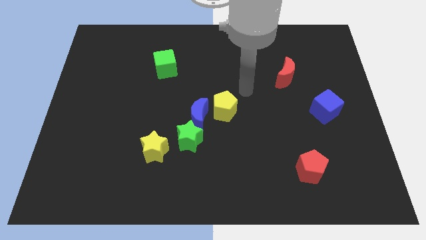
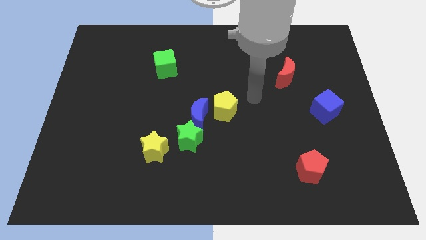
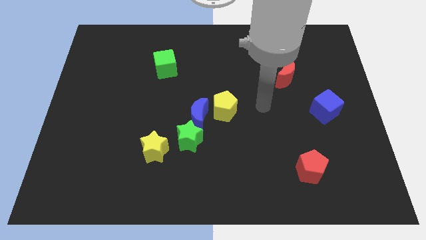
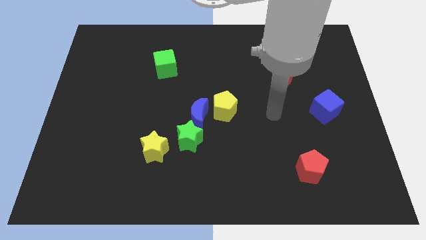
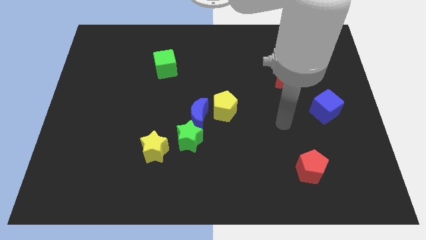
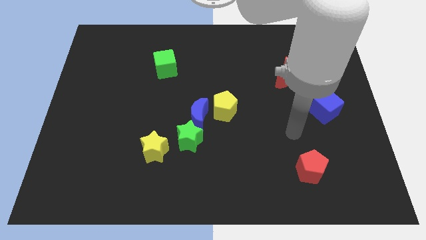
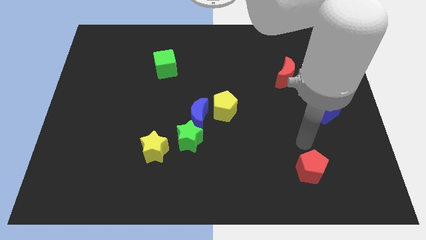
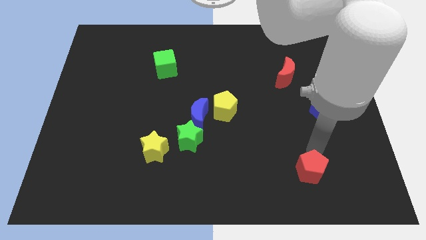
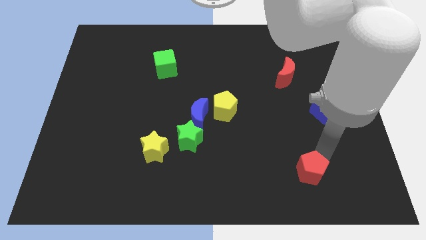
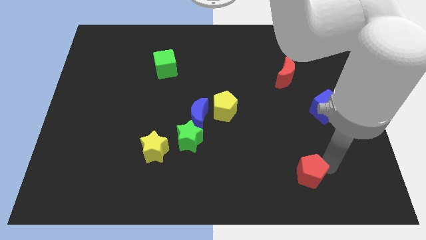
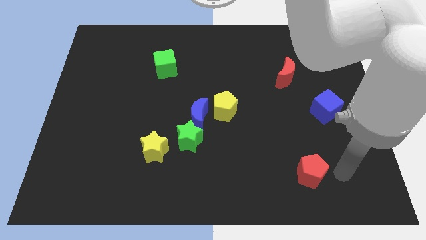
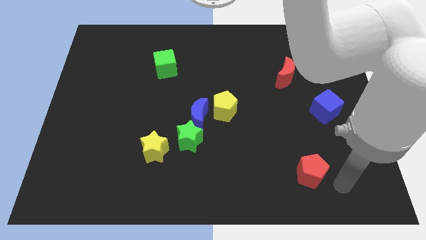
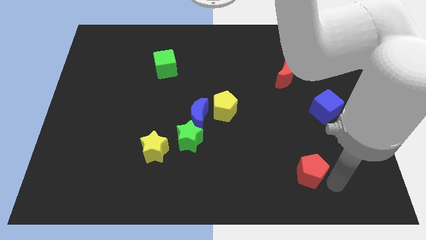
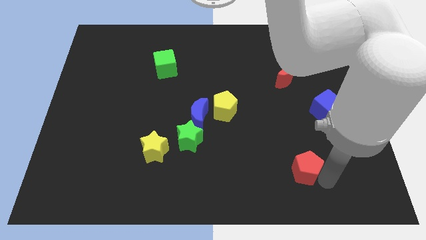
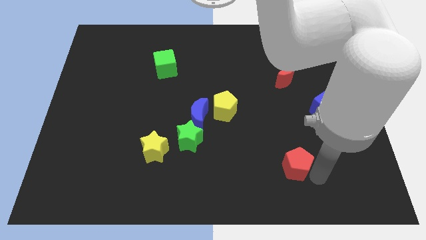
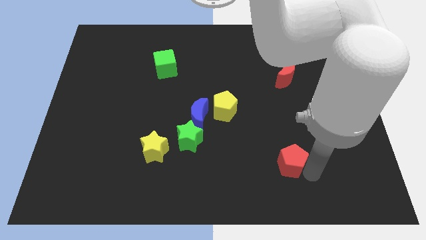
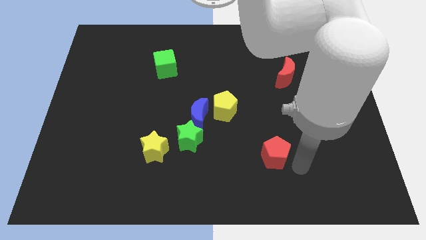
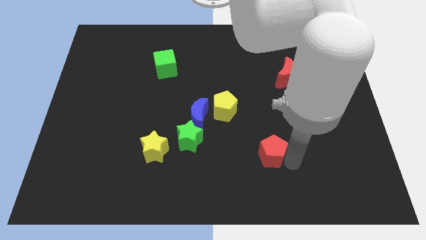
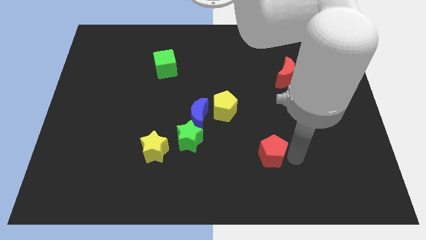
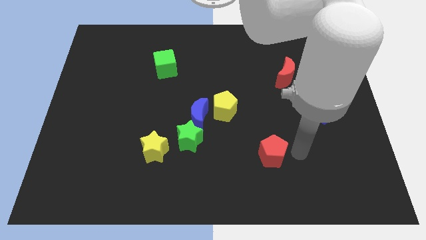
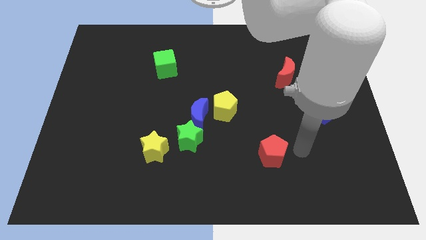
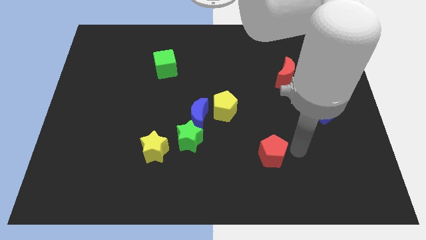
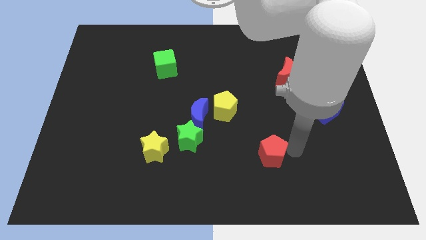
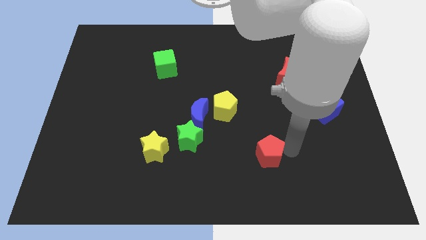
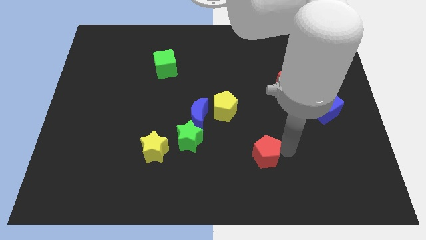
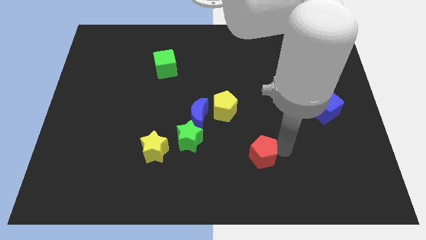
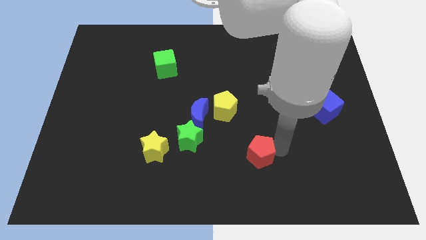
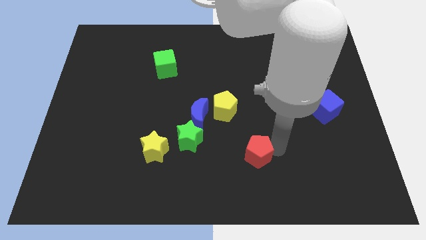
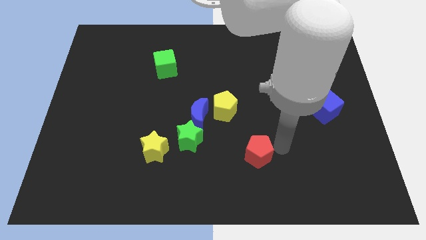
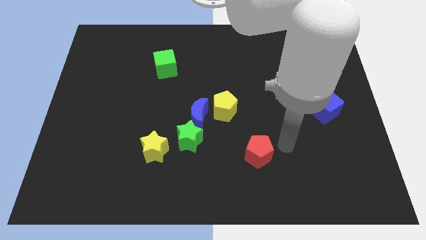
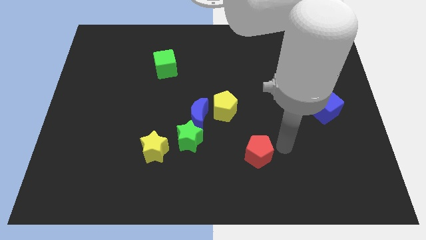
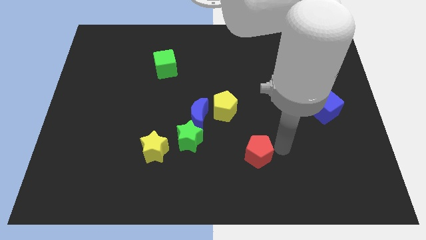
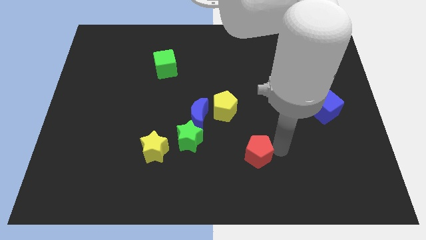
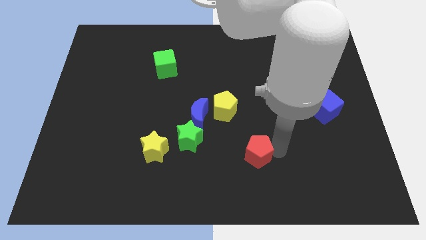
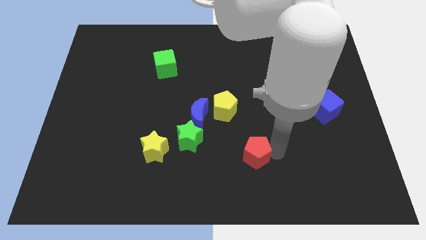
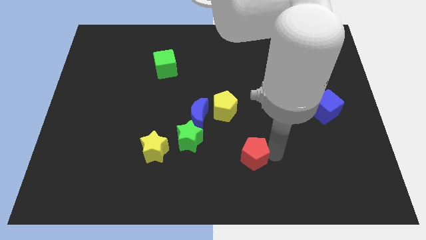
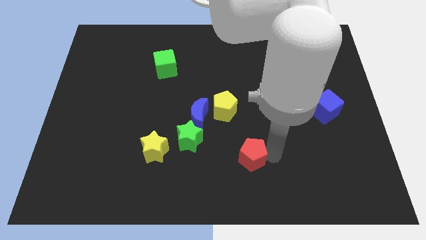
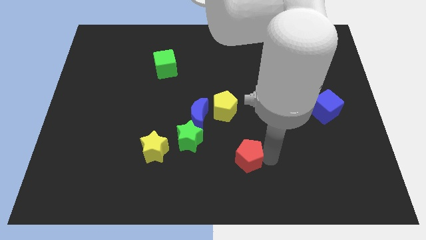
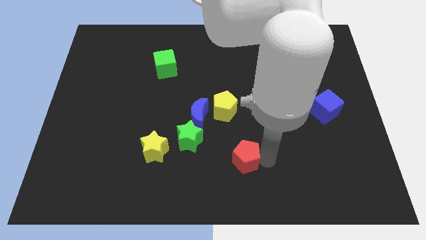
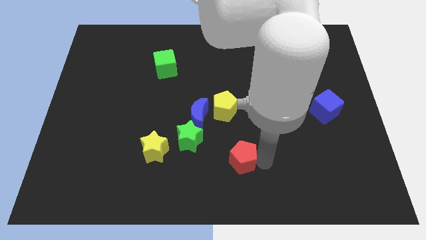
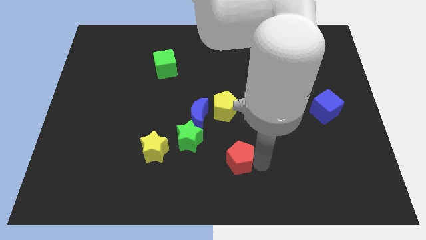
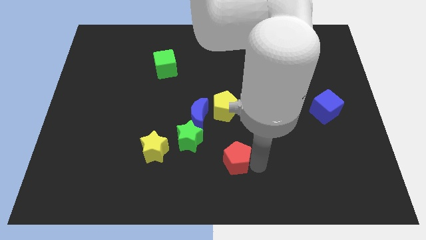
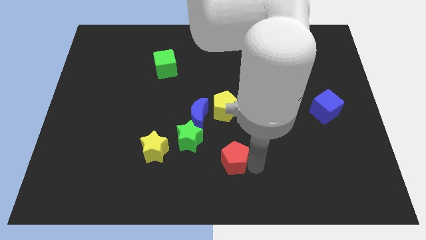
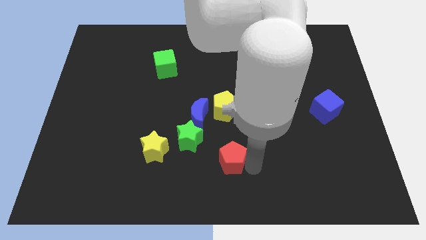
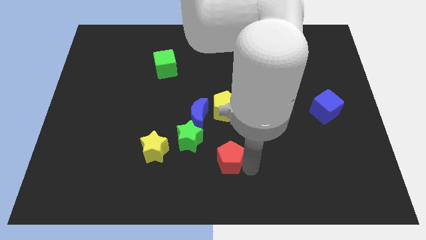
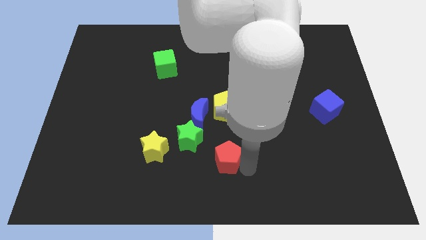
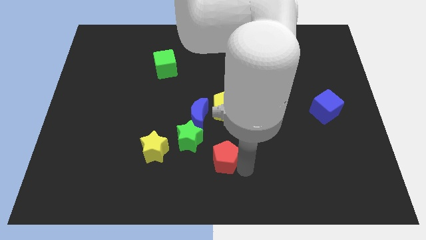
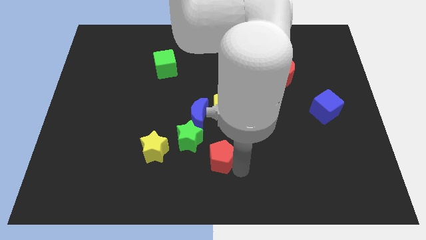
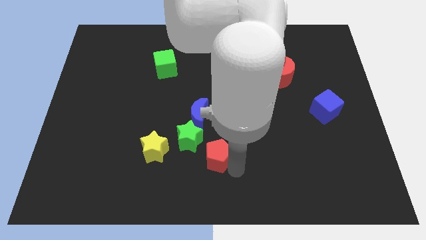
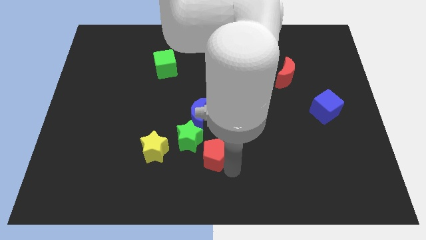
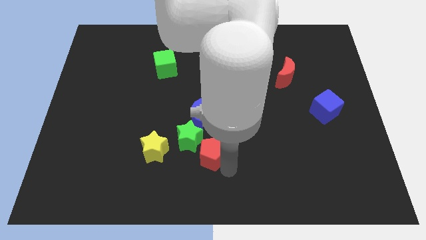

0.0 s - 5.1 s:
slide the red pentagon next to the green star

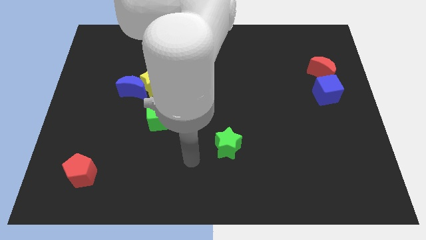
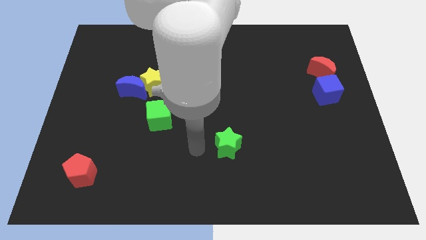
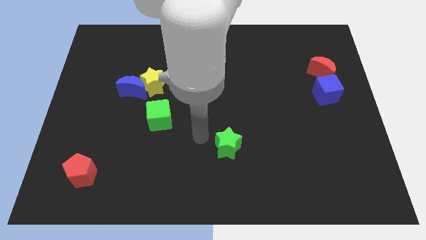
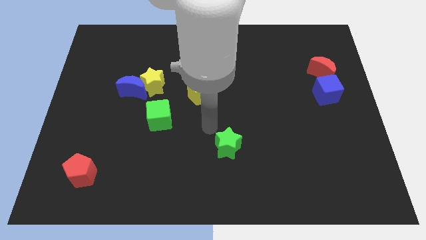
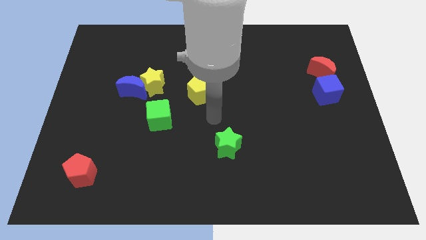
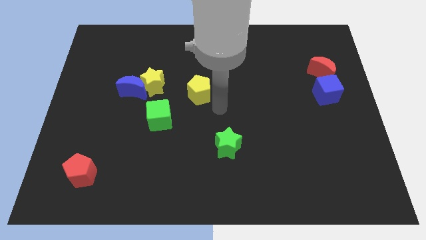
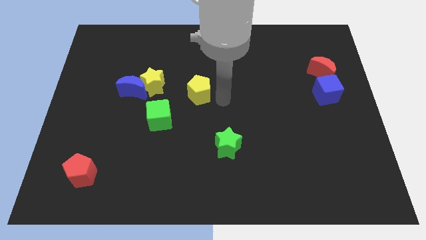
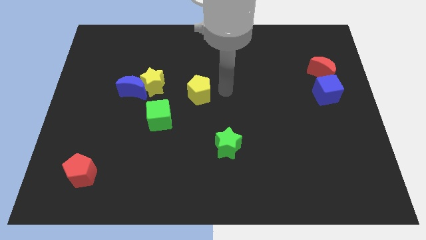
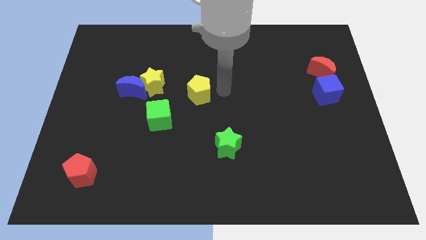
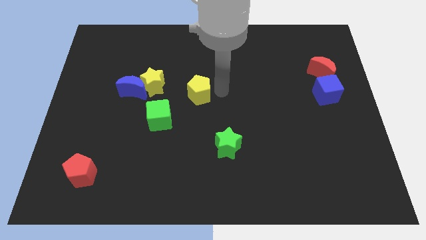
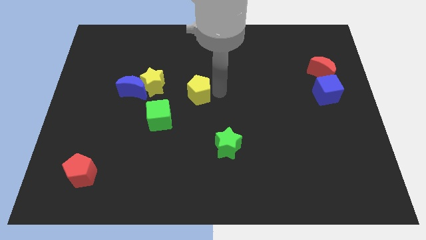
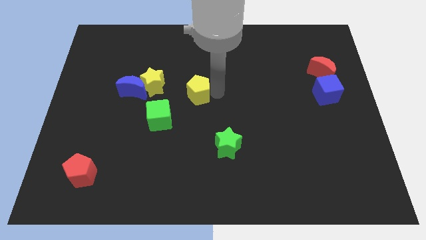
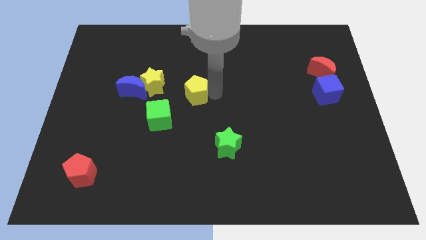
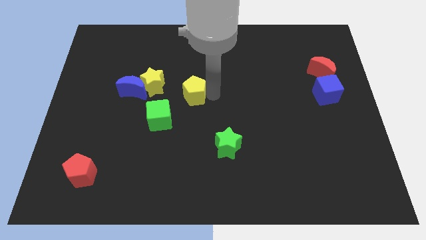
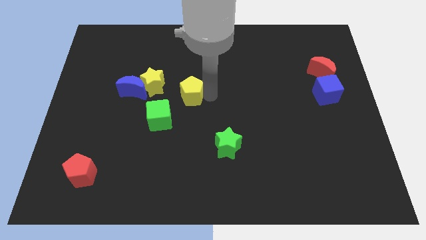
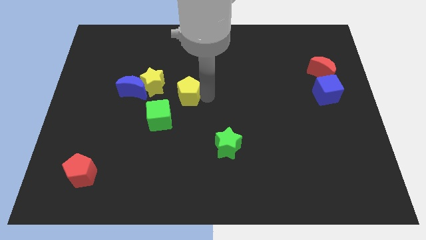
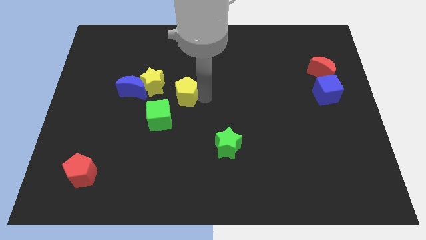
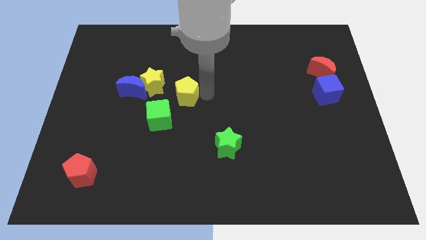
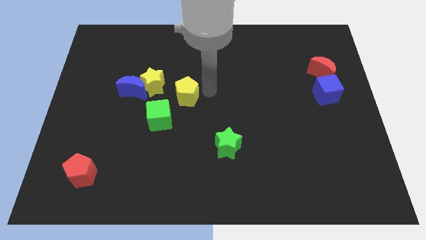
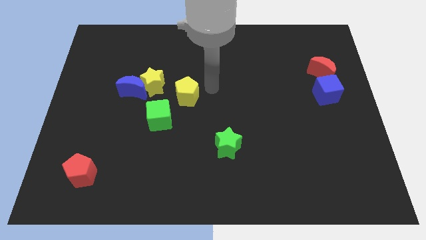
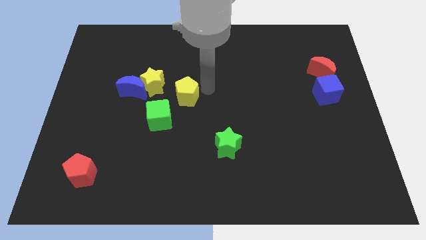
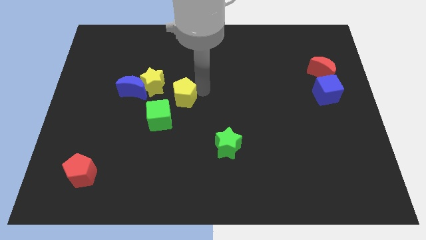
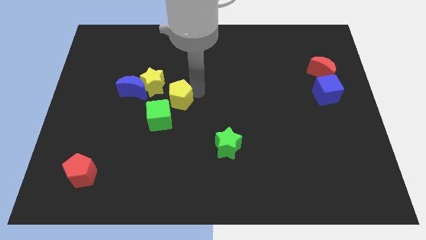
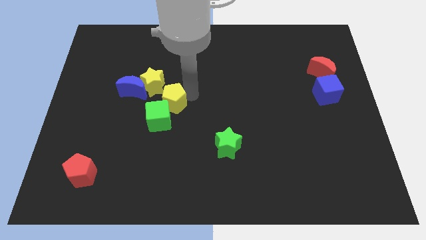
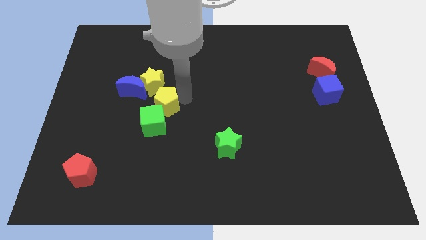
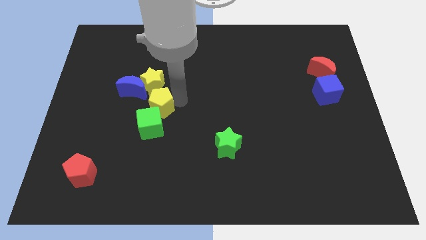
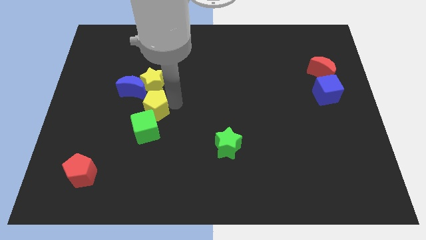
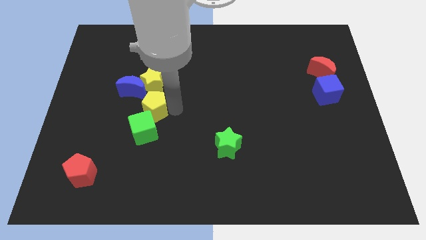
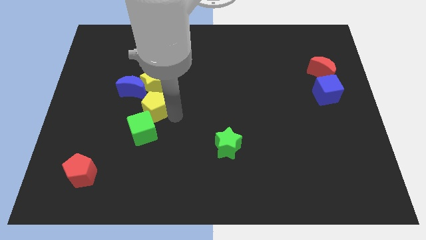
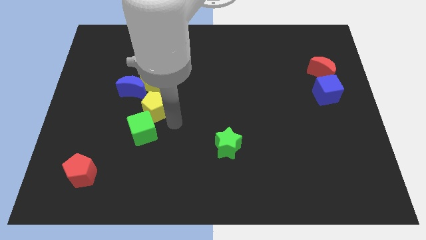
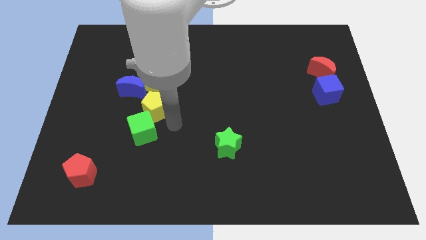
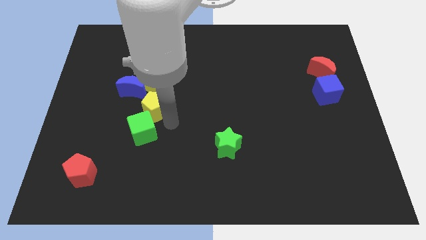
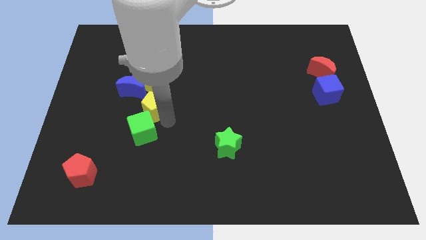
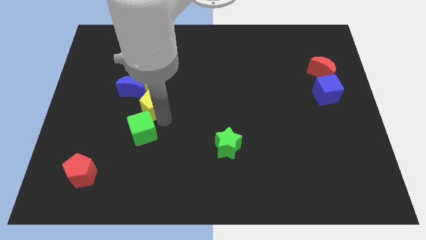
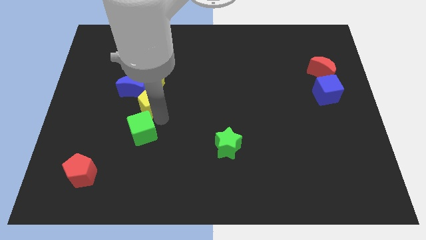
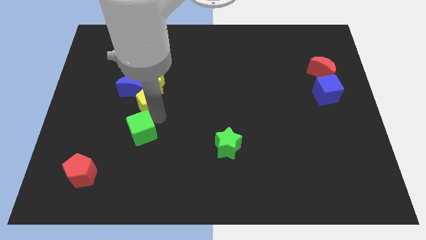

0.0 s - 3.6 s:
push the yellow pentagon close to the blue moon
